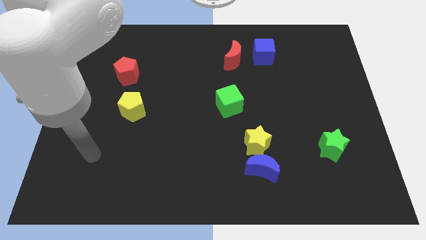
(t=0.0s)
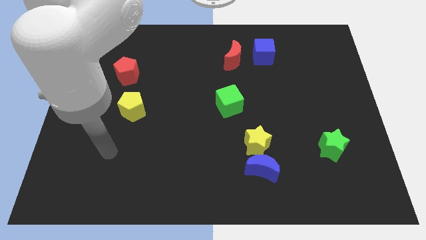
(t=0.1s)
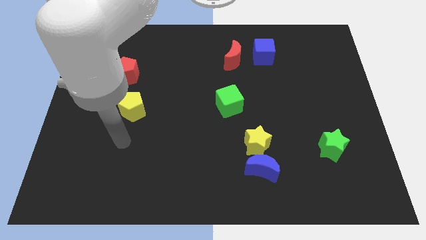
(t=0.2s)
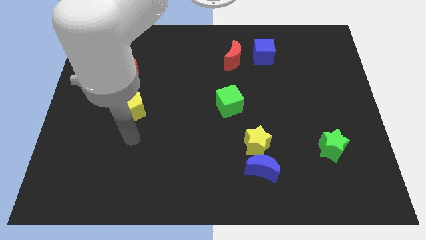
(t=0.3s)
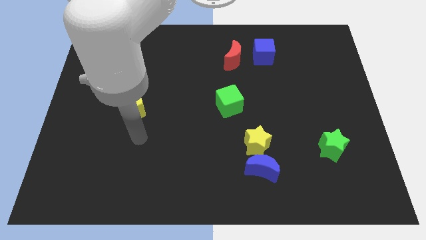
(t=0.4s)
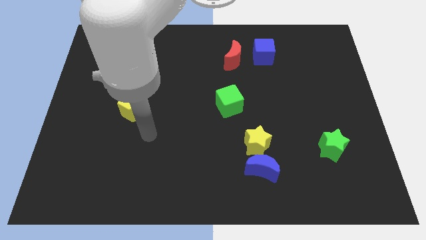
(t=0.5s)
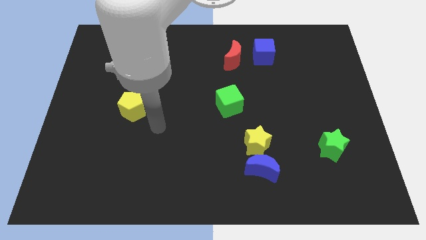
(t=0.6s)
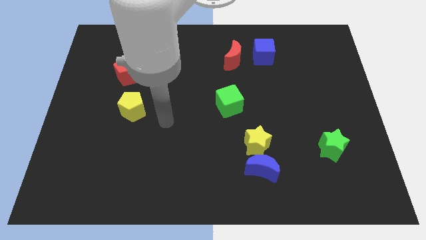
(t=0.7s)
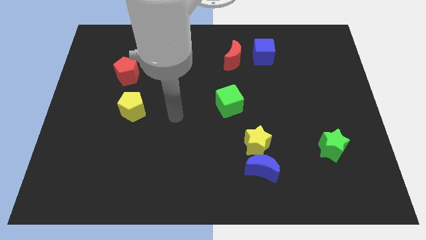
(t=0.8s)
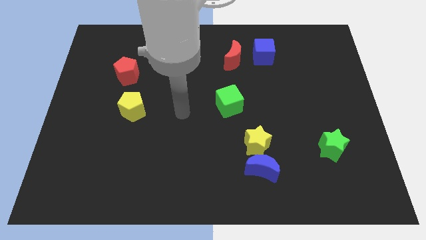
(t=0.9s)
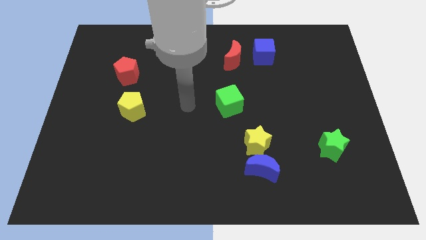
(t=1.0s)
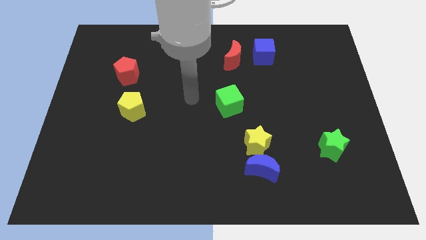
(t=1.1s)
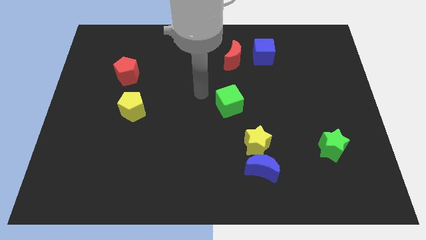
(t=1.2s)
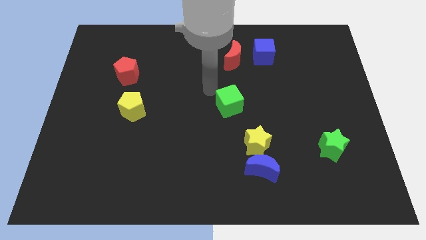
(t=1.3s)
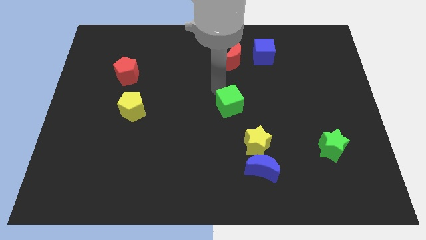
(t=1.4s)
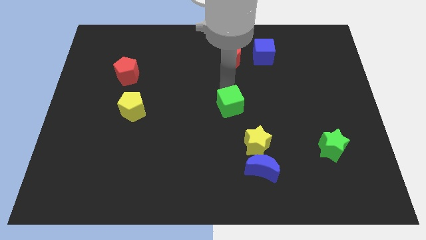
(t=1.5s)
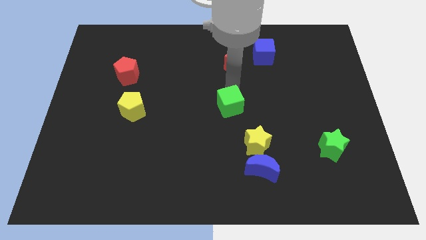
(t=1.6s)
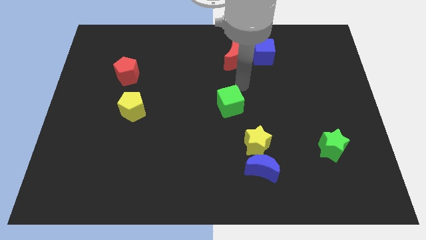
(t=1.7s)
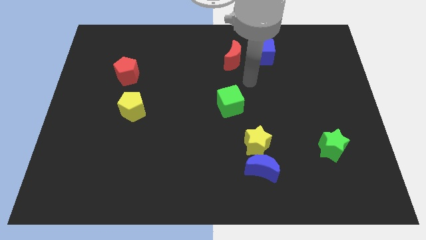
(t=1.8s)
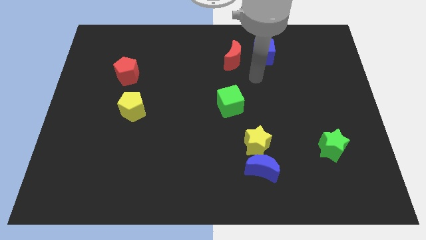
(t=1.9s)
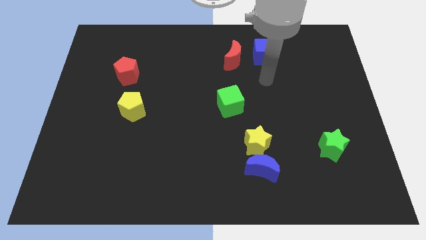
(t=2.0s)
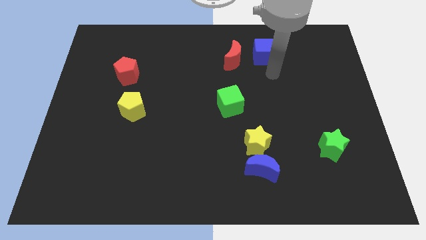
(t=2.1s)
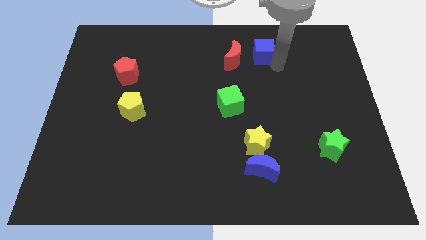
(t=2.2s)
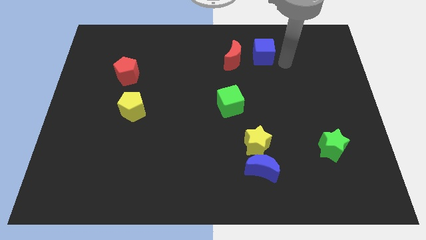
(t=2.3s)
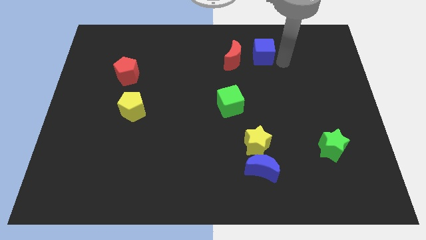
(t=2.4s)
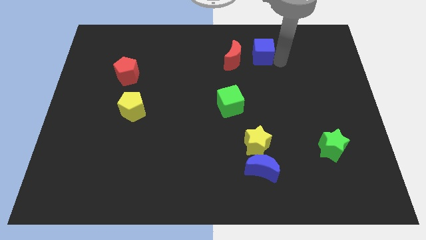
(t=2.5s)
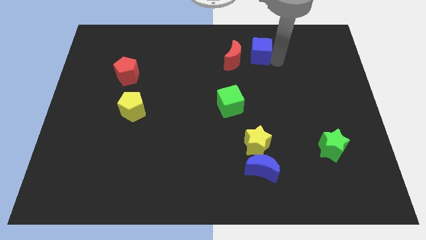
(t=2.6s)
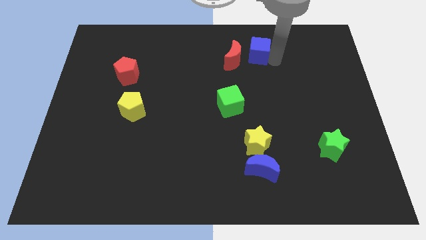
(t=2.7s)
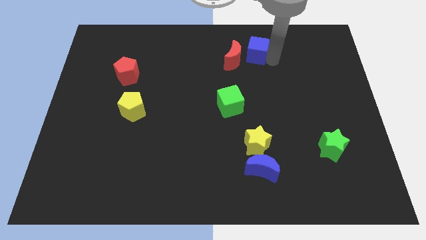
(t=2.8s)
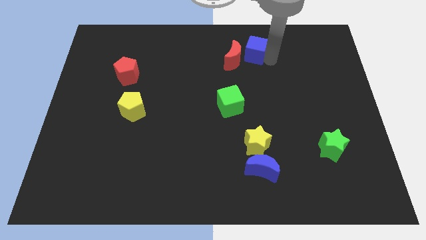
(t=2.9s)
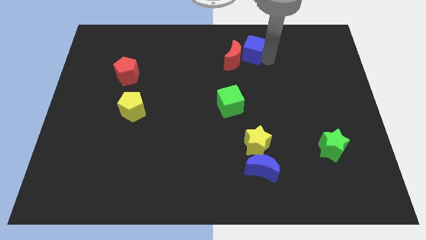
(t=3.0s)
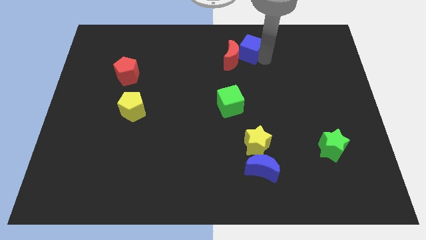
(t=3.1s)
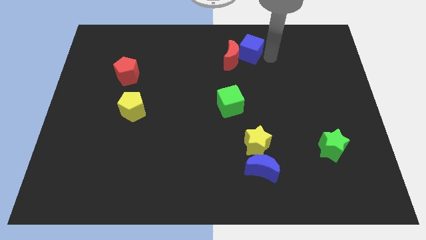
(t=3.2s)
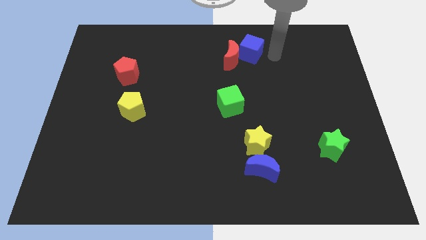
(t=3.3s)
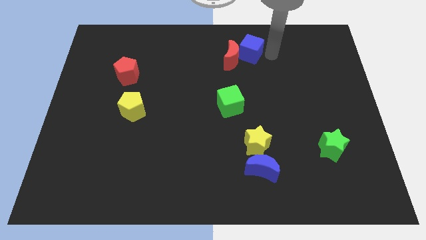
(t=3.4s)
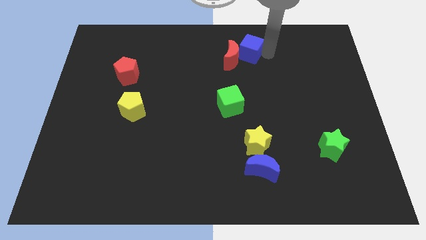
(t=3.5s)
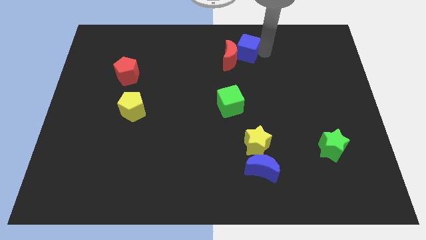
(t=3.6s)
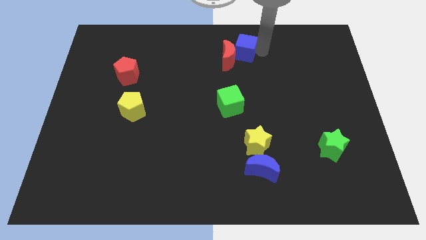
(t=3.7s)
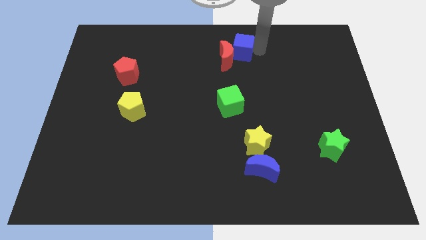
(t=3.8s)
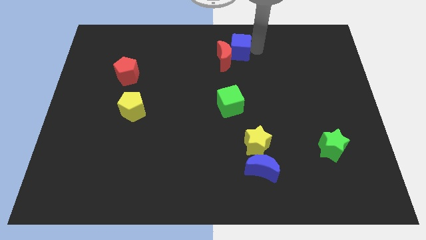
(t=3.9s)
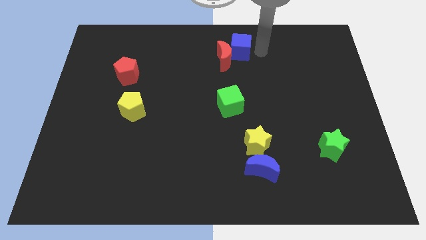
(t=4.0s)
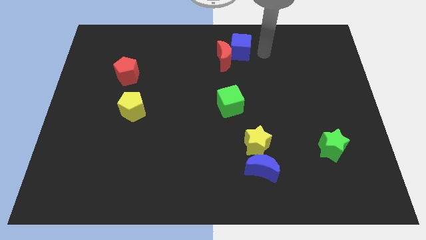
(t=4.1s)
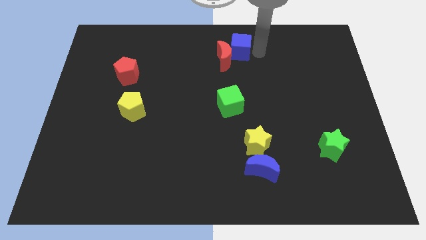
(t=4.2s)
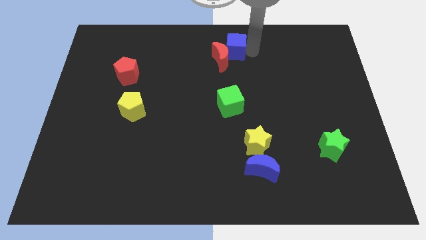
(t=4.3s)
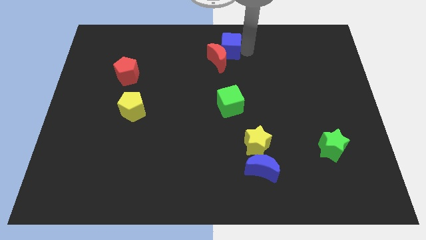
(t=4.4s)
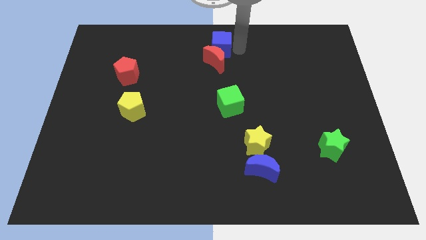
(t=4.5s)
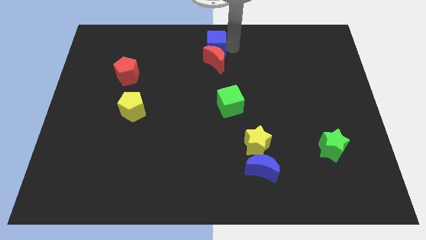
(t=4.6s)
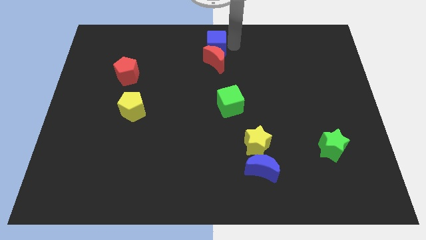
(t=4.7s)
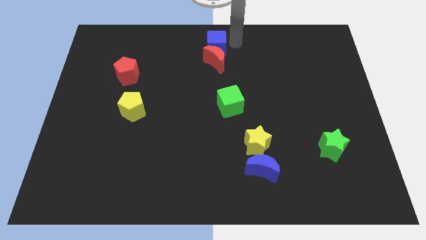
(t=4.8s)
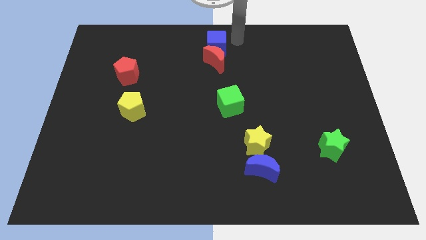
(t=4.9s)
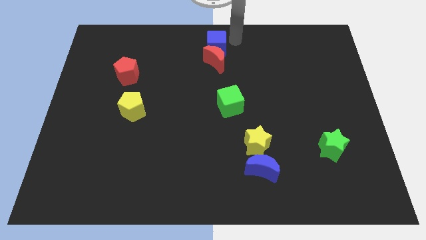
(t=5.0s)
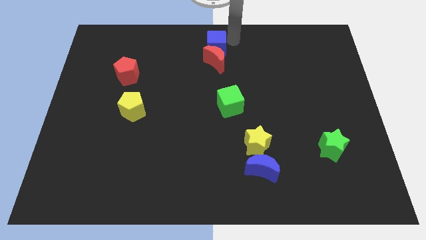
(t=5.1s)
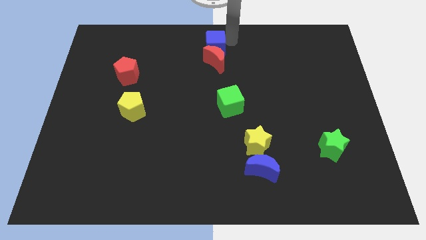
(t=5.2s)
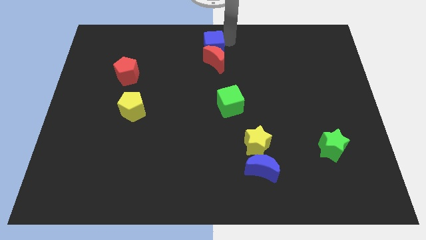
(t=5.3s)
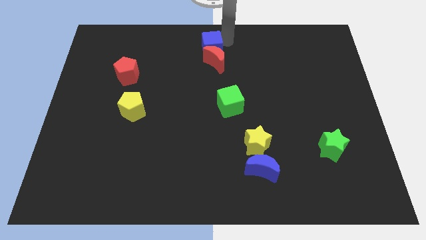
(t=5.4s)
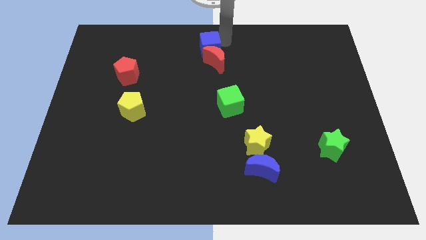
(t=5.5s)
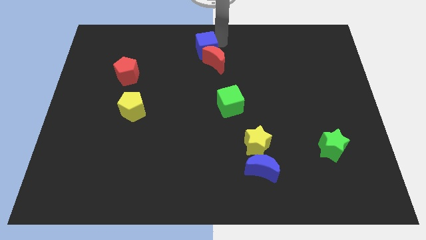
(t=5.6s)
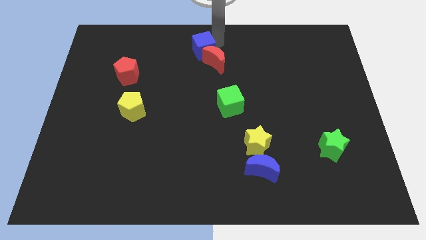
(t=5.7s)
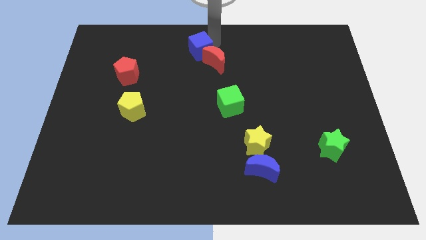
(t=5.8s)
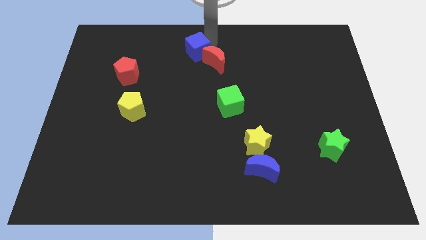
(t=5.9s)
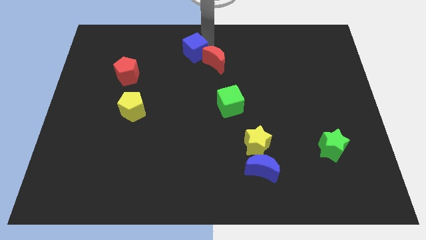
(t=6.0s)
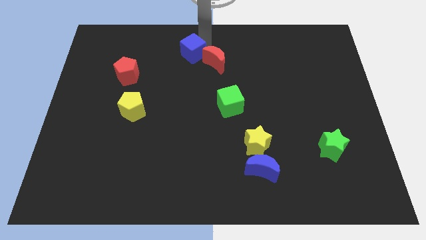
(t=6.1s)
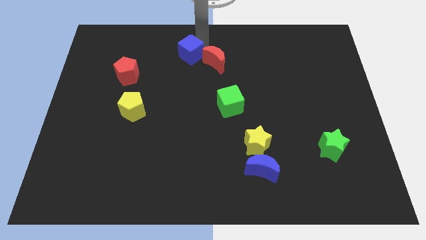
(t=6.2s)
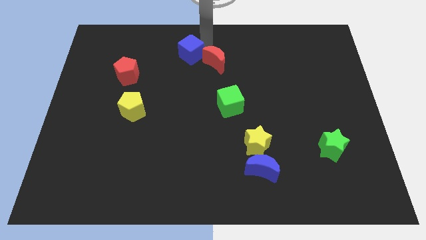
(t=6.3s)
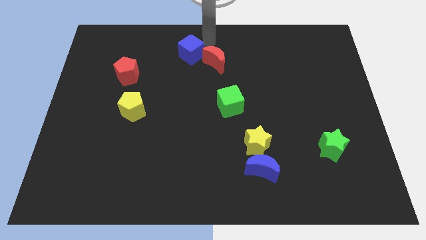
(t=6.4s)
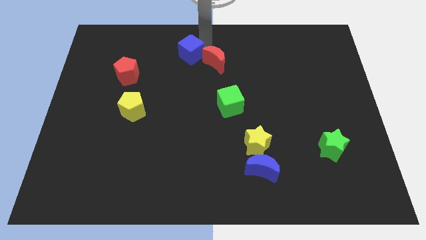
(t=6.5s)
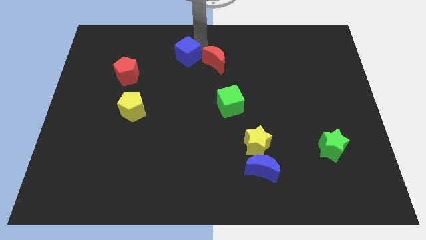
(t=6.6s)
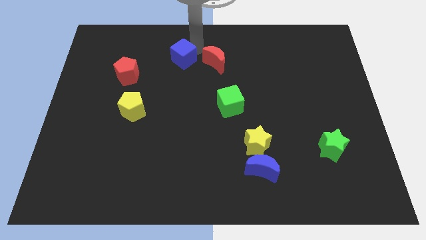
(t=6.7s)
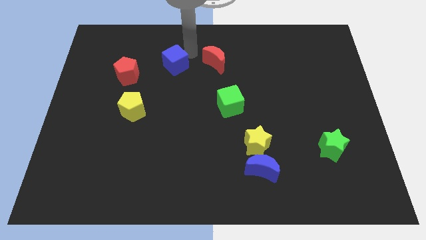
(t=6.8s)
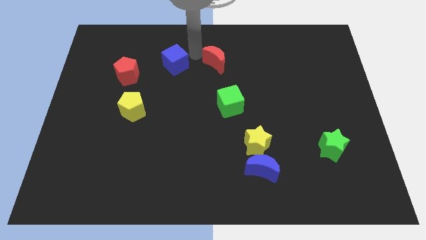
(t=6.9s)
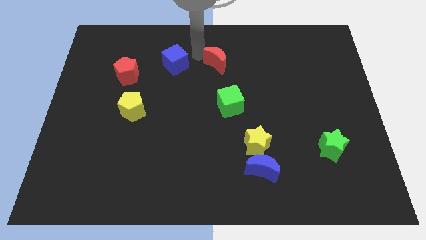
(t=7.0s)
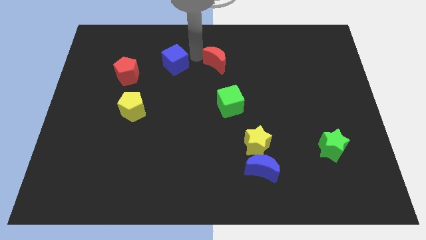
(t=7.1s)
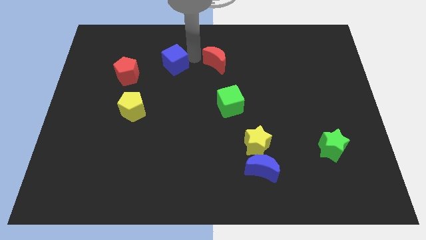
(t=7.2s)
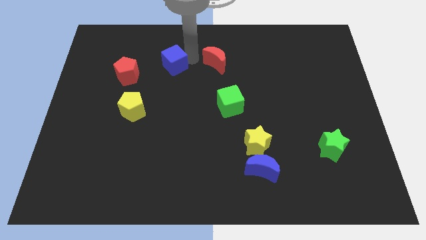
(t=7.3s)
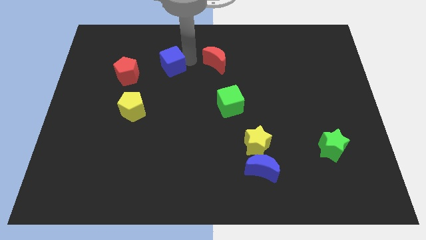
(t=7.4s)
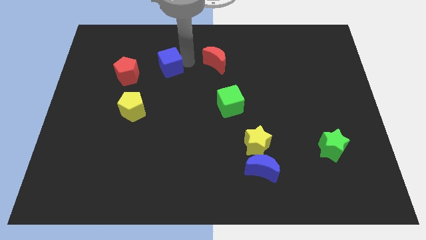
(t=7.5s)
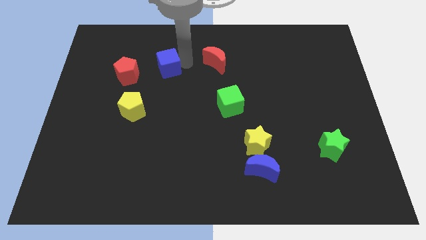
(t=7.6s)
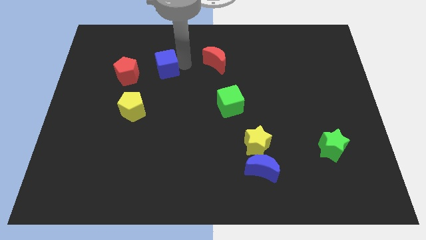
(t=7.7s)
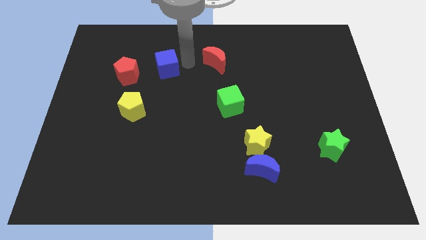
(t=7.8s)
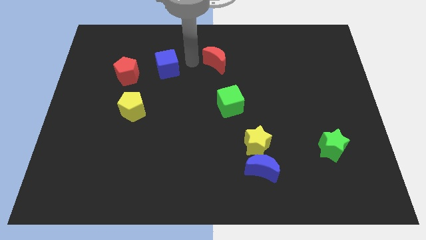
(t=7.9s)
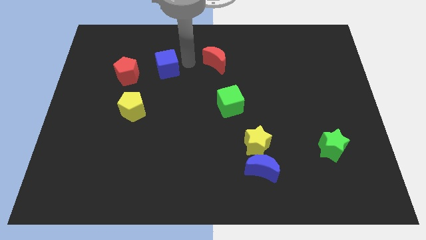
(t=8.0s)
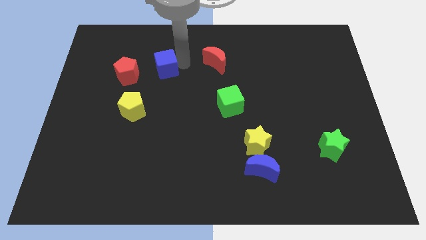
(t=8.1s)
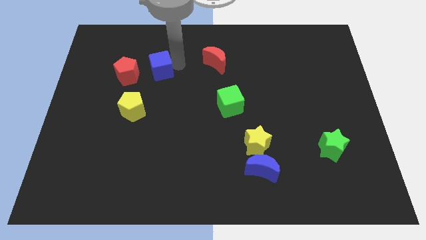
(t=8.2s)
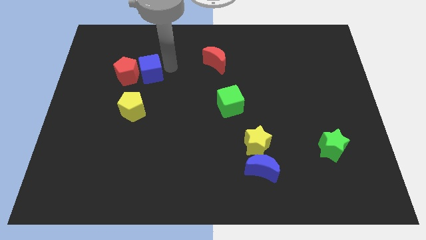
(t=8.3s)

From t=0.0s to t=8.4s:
put the blue cube close to the red pentagon
